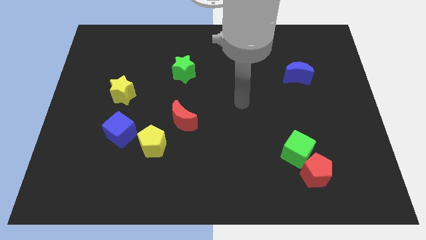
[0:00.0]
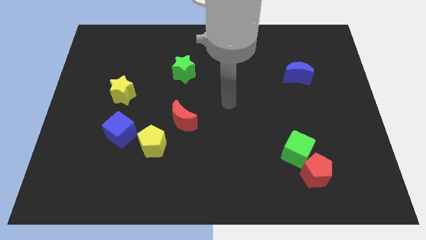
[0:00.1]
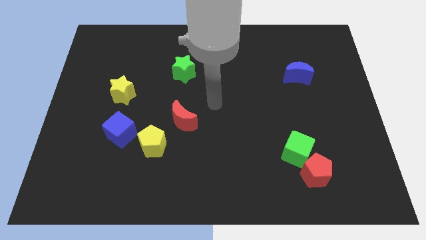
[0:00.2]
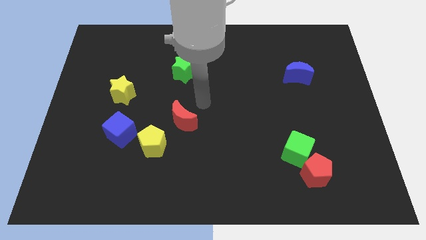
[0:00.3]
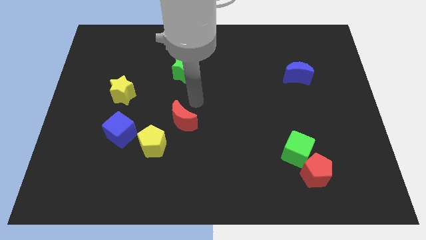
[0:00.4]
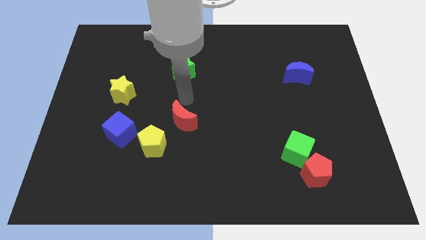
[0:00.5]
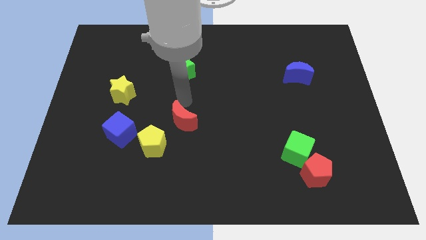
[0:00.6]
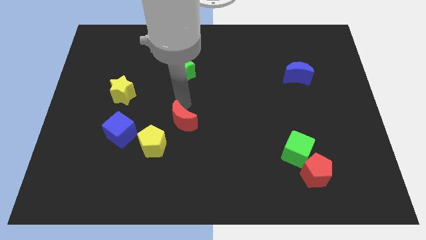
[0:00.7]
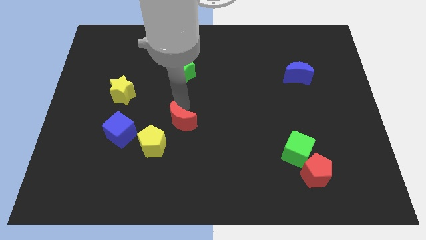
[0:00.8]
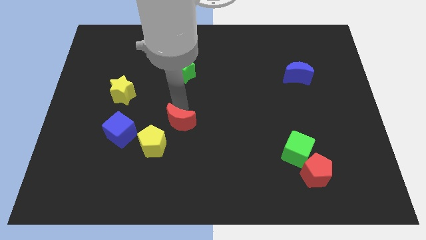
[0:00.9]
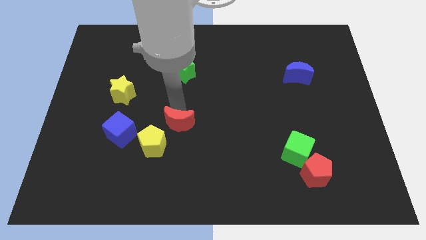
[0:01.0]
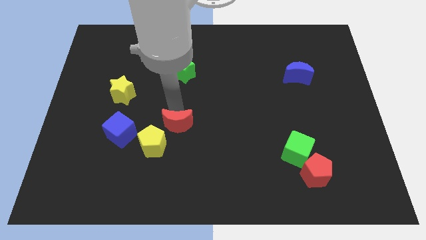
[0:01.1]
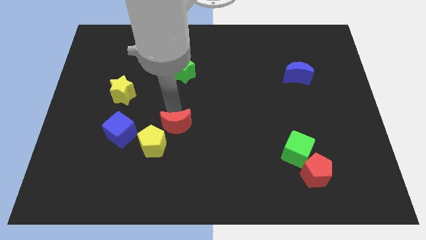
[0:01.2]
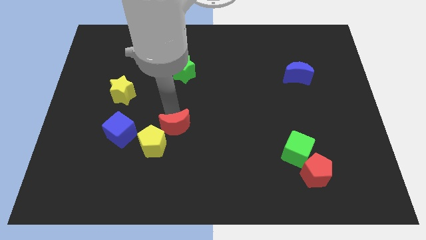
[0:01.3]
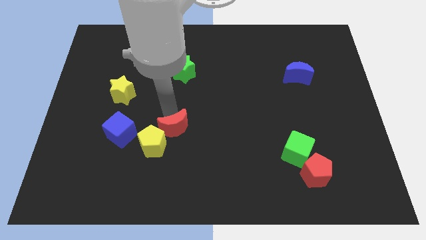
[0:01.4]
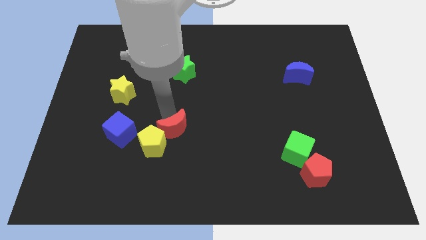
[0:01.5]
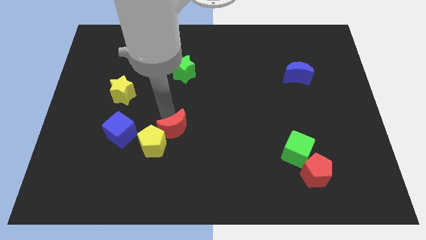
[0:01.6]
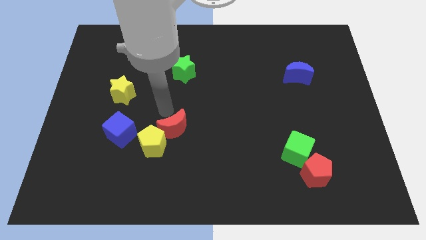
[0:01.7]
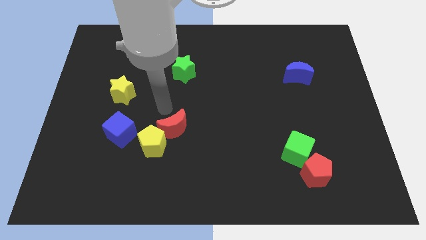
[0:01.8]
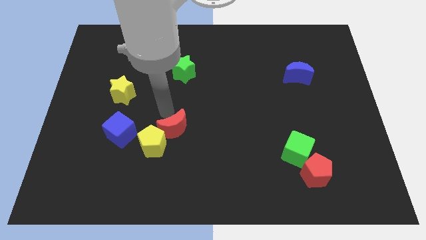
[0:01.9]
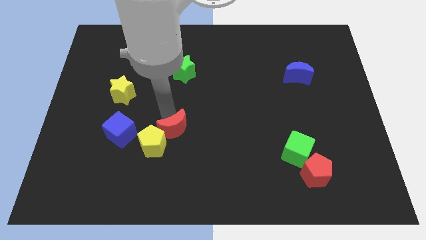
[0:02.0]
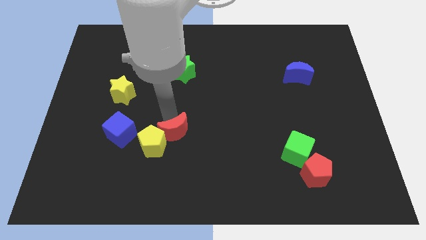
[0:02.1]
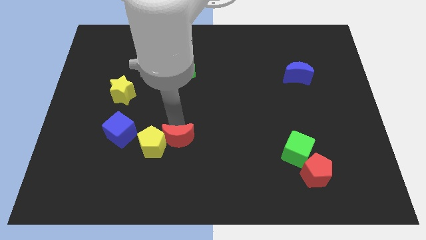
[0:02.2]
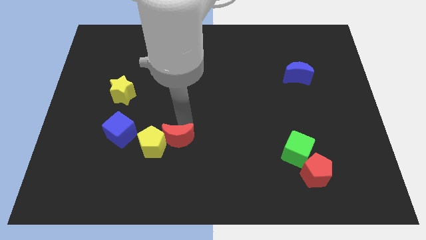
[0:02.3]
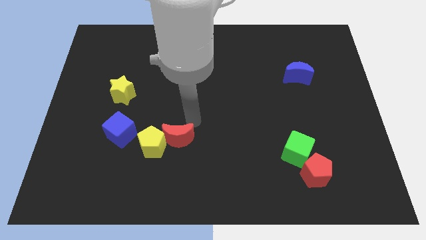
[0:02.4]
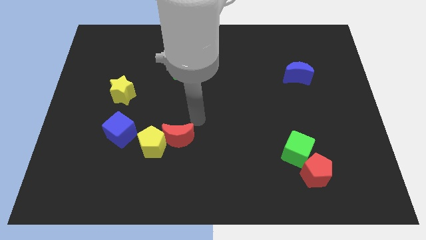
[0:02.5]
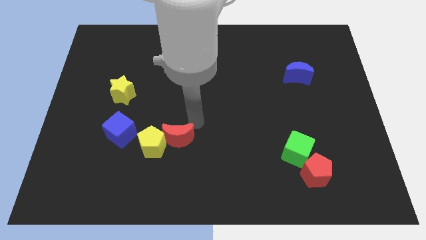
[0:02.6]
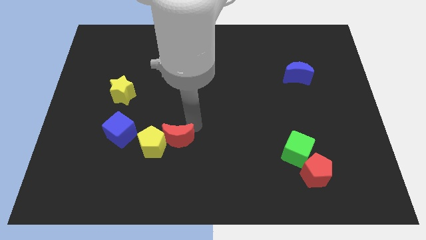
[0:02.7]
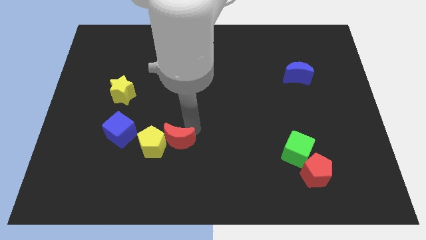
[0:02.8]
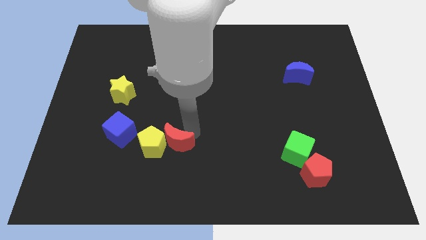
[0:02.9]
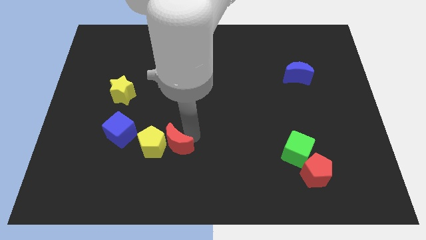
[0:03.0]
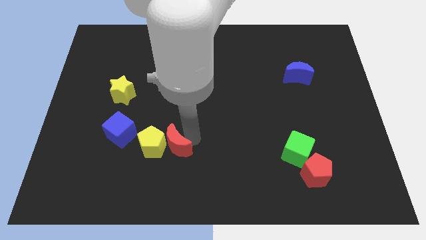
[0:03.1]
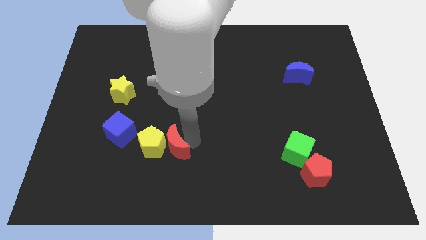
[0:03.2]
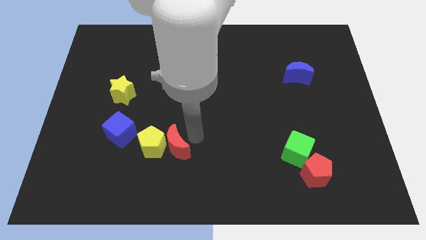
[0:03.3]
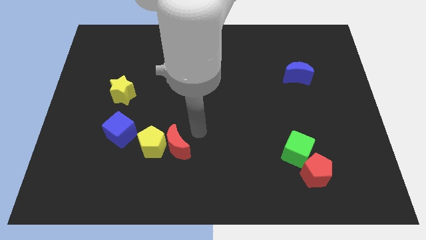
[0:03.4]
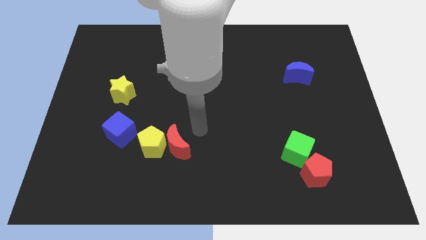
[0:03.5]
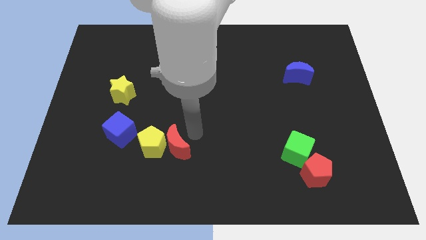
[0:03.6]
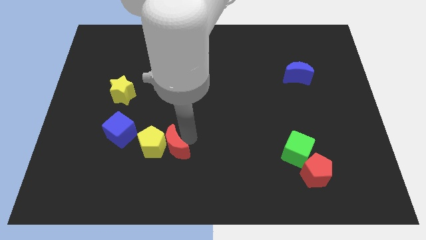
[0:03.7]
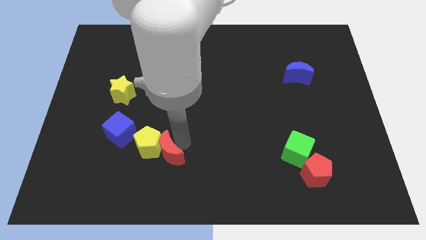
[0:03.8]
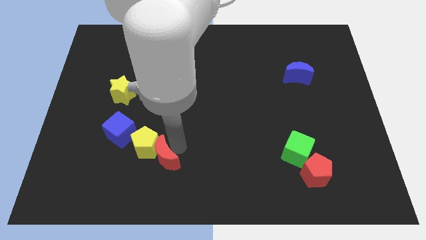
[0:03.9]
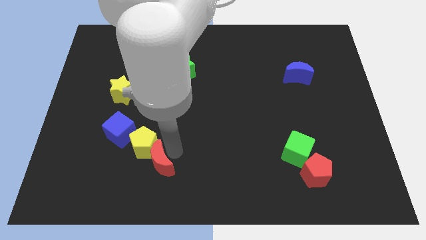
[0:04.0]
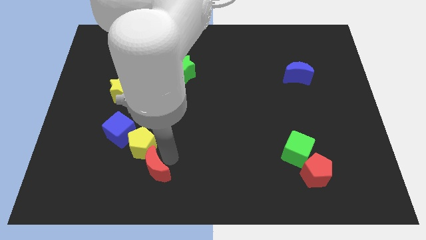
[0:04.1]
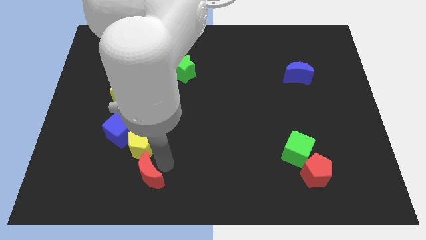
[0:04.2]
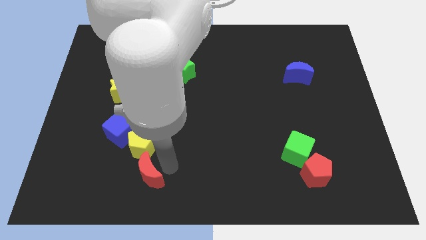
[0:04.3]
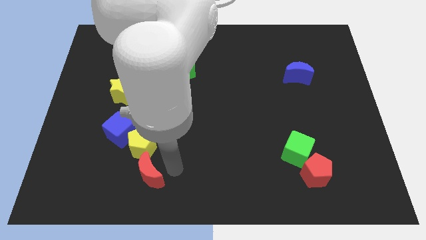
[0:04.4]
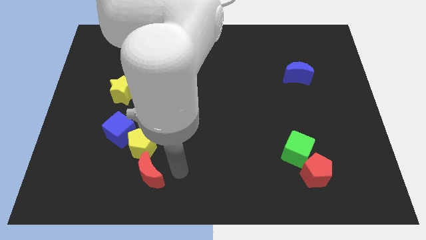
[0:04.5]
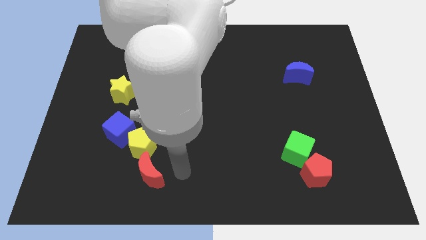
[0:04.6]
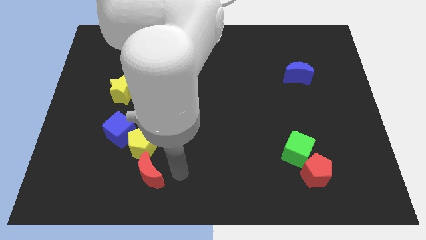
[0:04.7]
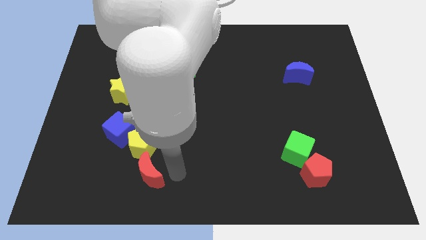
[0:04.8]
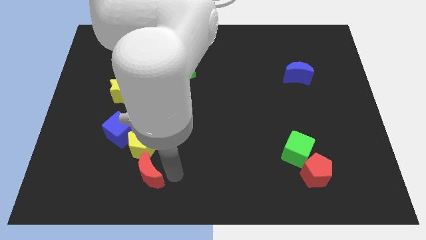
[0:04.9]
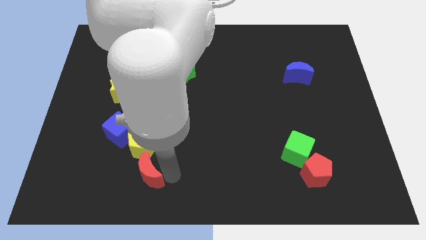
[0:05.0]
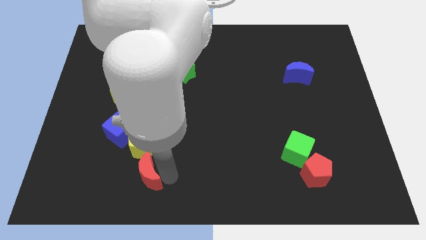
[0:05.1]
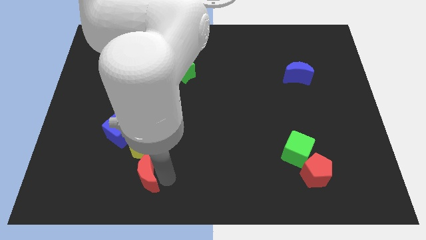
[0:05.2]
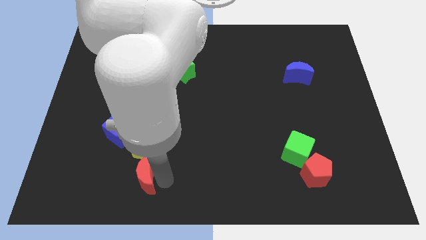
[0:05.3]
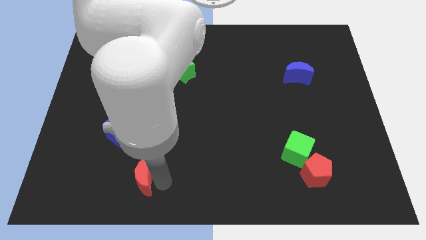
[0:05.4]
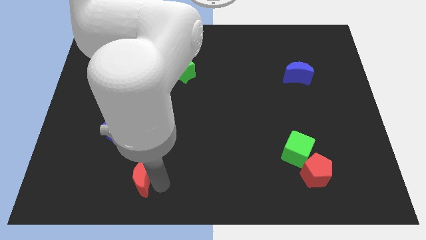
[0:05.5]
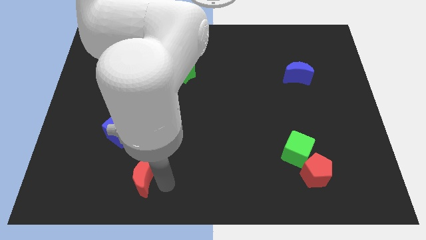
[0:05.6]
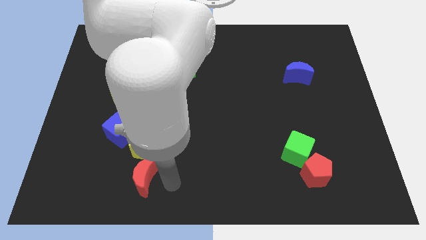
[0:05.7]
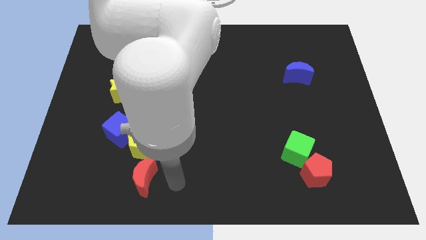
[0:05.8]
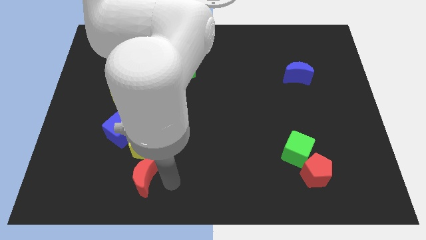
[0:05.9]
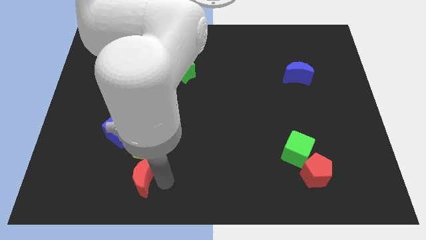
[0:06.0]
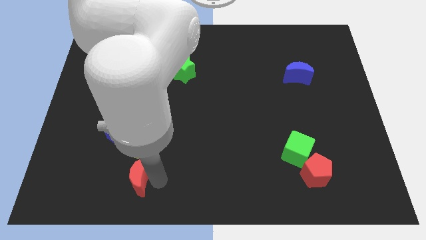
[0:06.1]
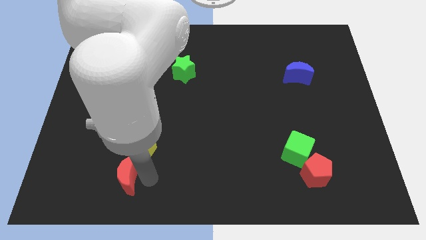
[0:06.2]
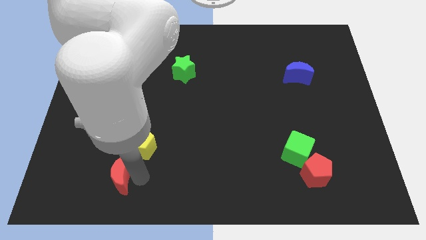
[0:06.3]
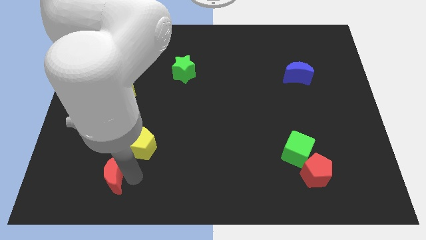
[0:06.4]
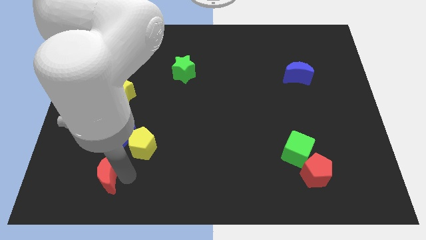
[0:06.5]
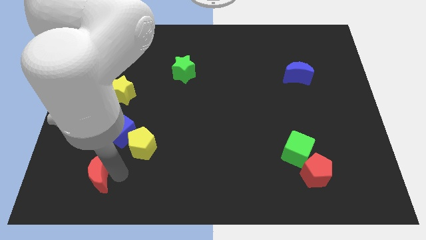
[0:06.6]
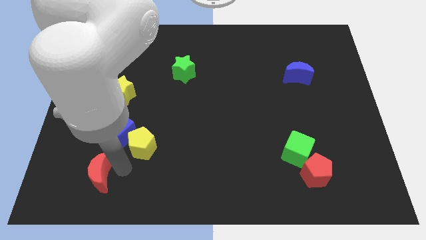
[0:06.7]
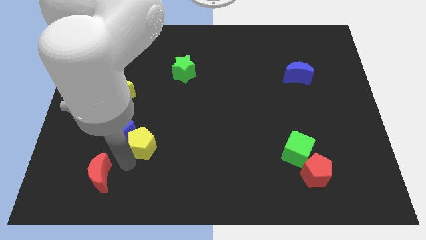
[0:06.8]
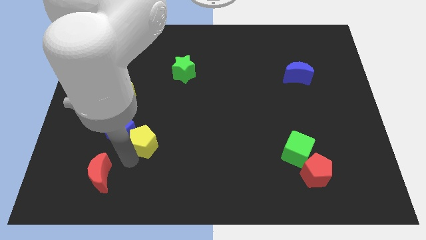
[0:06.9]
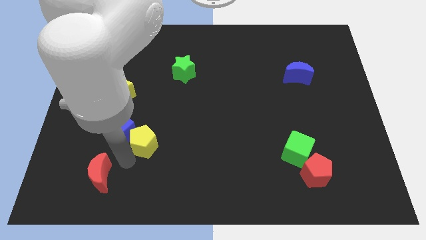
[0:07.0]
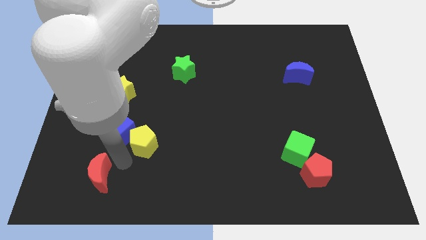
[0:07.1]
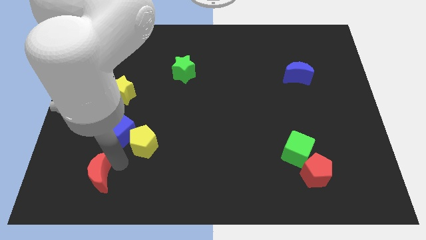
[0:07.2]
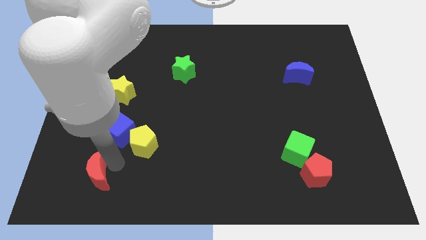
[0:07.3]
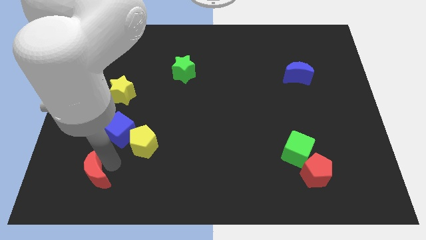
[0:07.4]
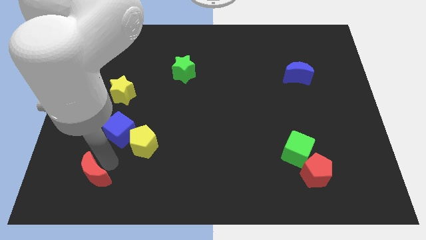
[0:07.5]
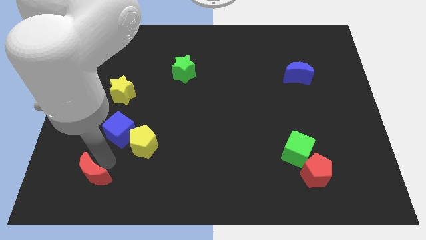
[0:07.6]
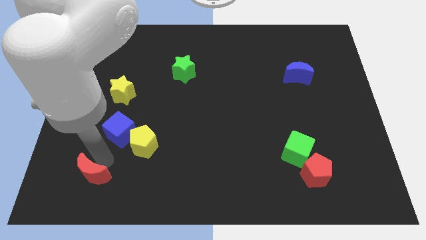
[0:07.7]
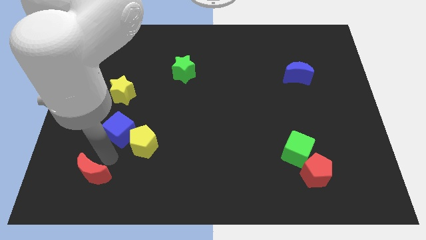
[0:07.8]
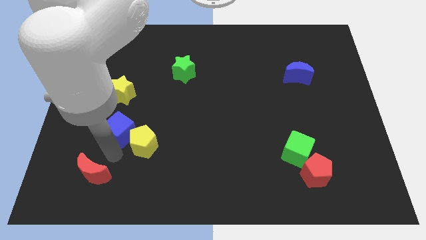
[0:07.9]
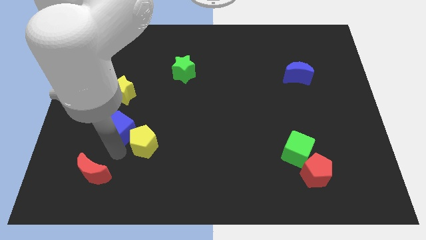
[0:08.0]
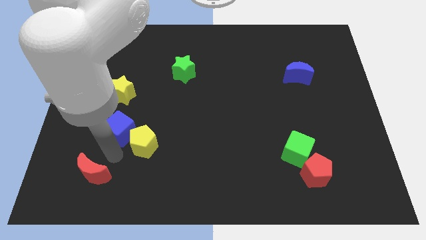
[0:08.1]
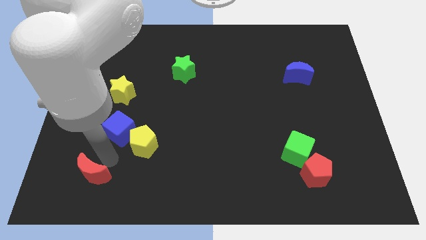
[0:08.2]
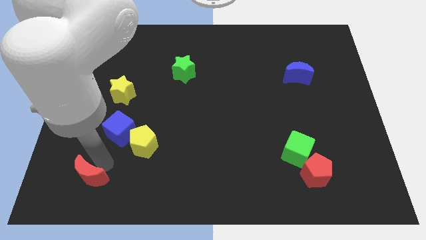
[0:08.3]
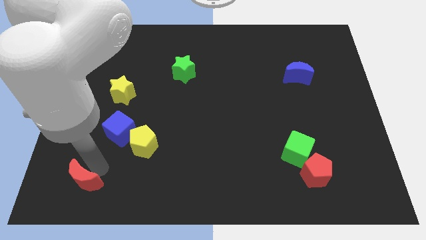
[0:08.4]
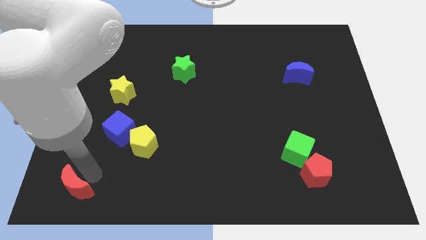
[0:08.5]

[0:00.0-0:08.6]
push the red moon to the bottom left corner
